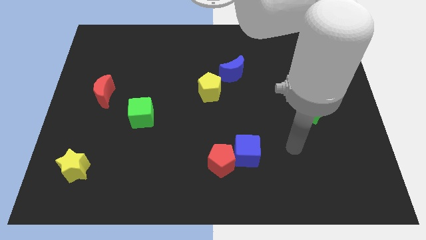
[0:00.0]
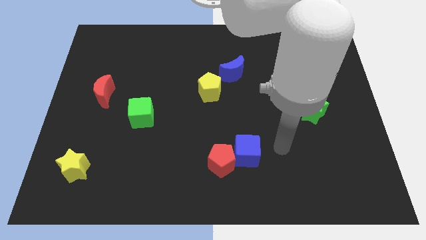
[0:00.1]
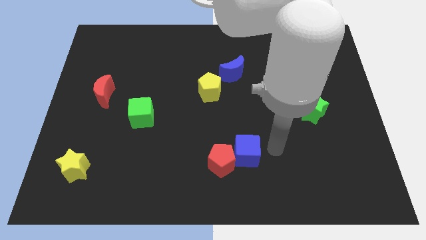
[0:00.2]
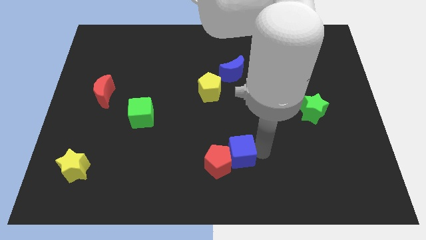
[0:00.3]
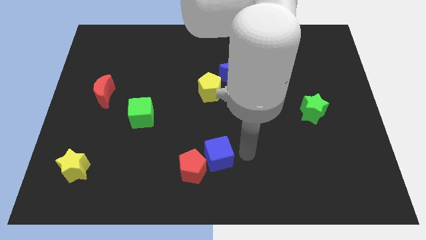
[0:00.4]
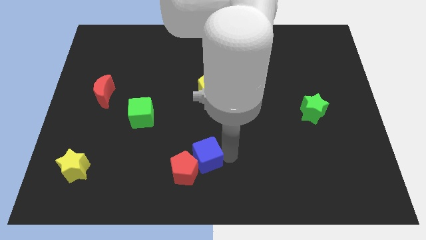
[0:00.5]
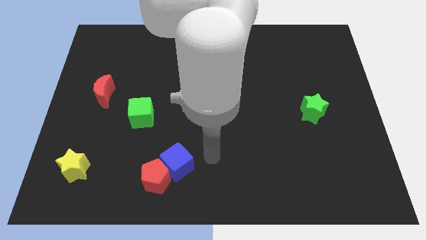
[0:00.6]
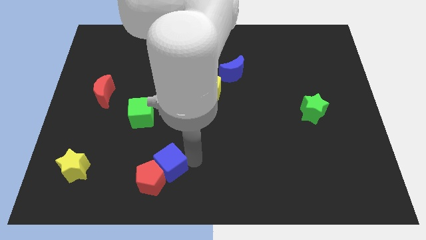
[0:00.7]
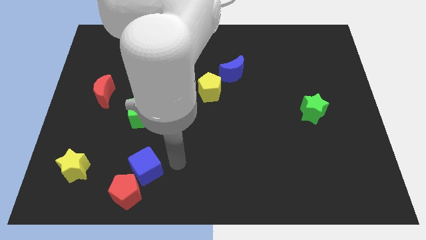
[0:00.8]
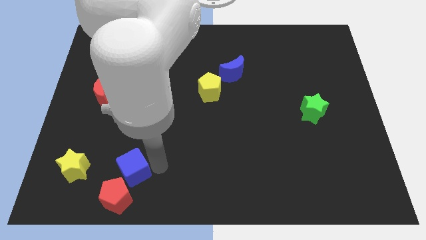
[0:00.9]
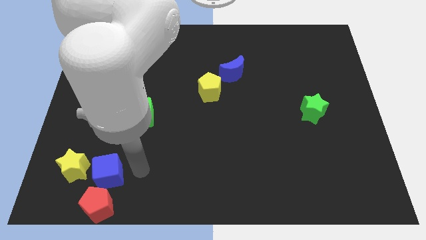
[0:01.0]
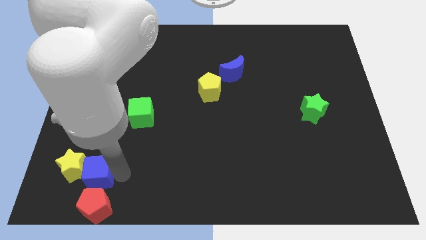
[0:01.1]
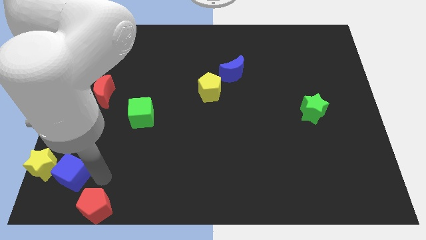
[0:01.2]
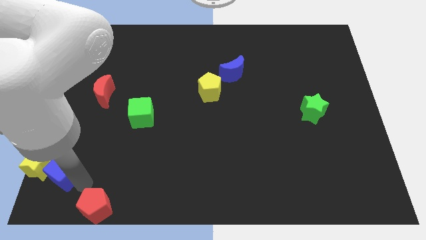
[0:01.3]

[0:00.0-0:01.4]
move the red pentagon away from the blue cube

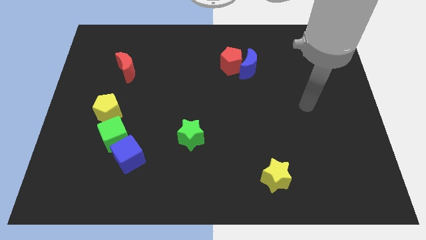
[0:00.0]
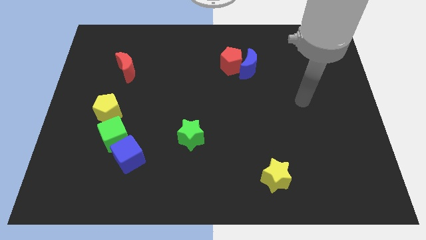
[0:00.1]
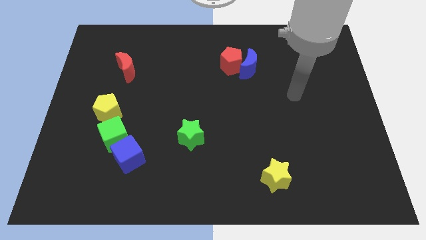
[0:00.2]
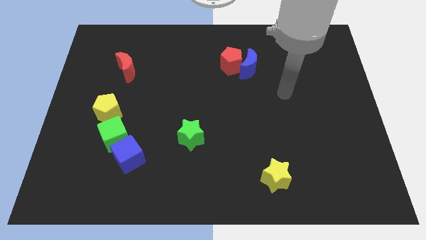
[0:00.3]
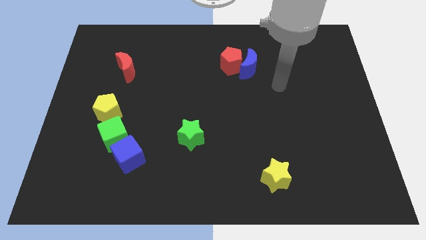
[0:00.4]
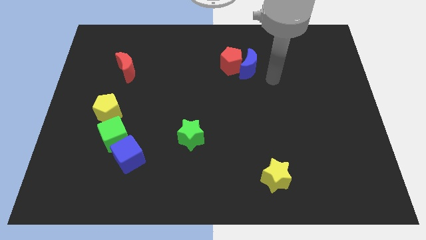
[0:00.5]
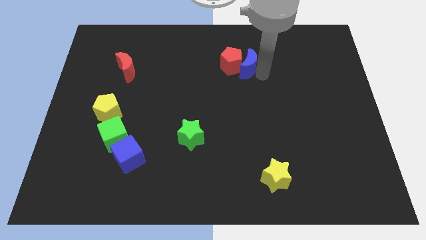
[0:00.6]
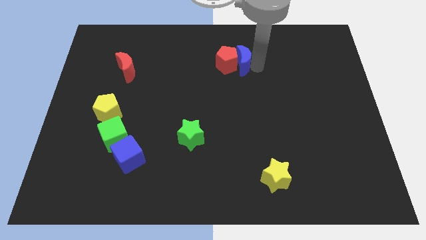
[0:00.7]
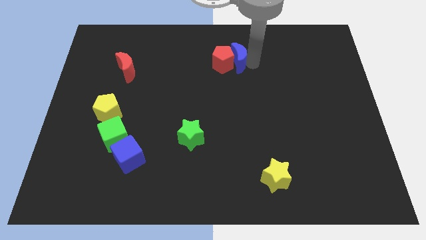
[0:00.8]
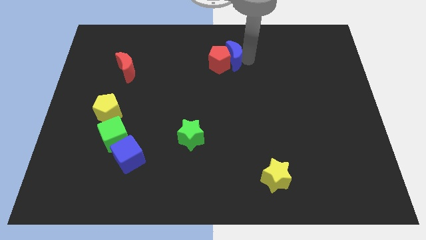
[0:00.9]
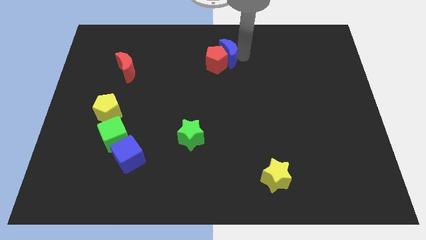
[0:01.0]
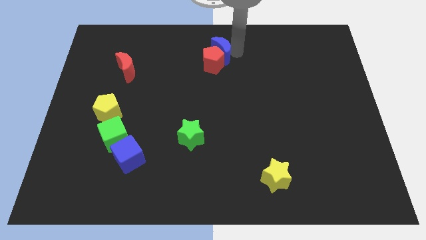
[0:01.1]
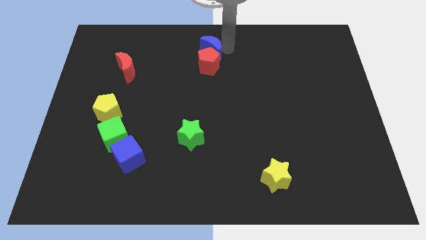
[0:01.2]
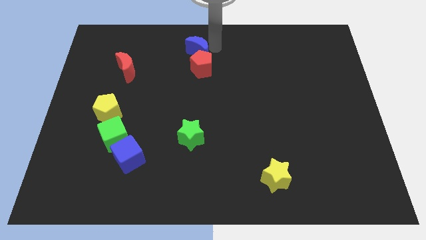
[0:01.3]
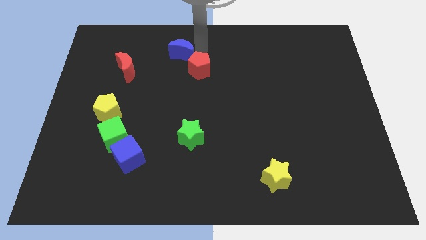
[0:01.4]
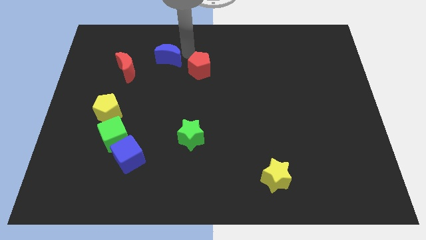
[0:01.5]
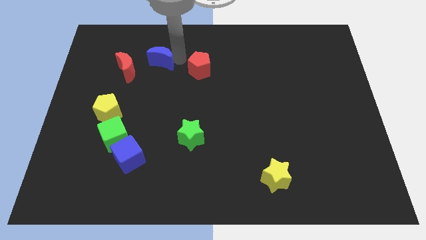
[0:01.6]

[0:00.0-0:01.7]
pull the red pentagon apart from the blue moon

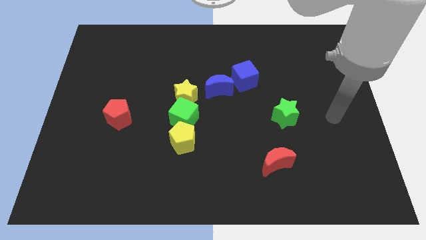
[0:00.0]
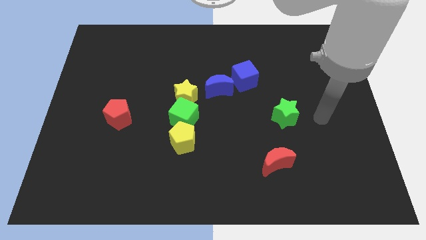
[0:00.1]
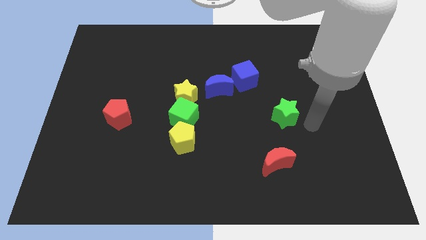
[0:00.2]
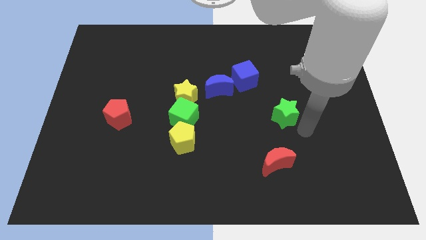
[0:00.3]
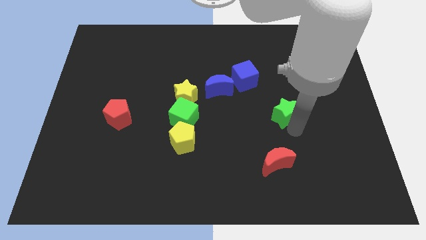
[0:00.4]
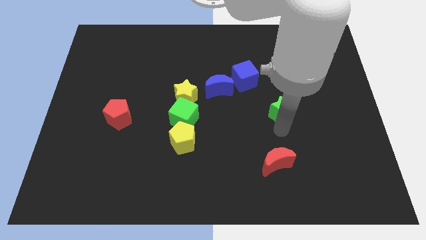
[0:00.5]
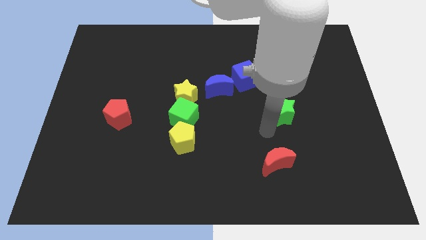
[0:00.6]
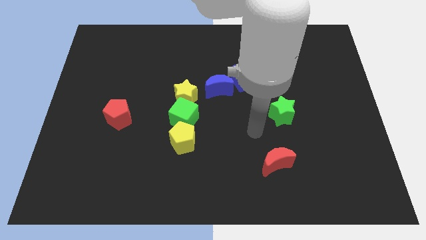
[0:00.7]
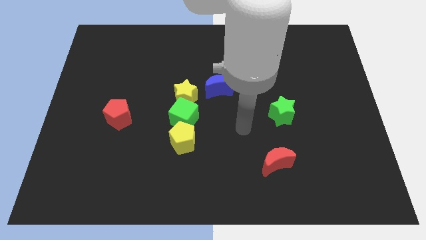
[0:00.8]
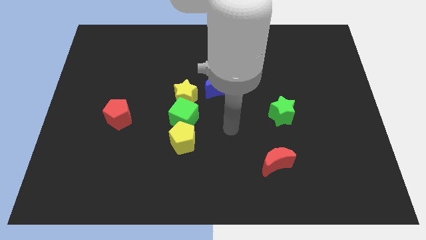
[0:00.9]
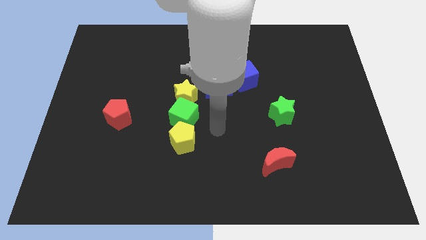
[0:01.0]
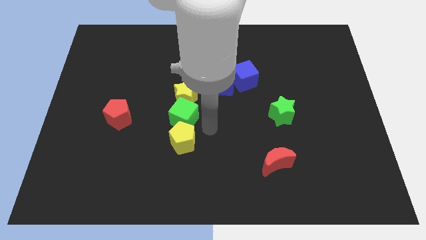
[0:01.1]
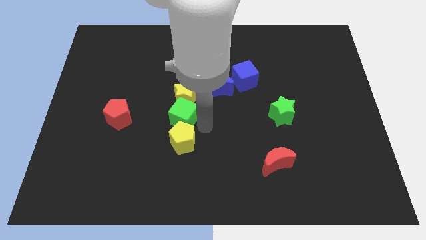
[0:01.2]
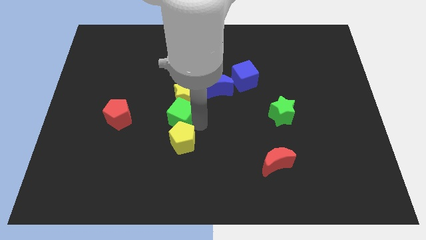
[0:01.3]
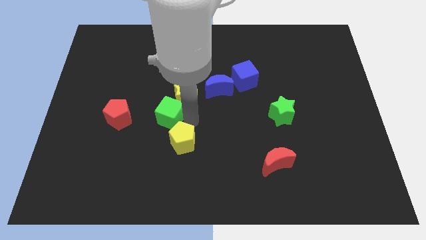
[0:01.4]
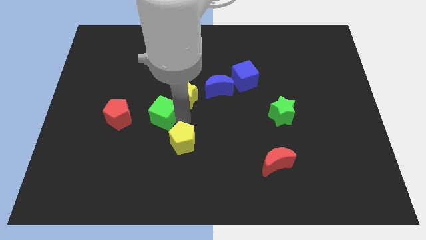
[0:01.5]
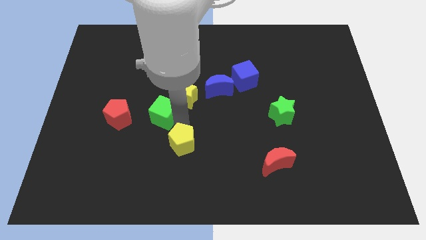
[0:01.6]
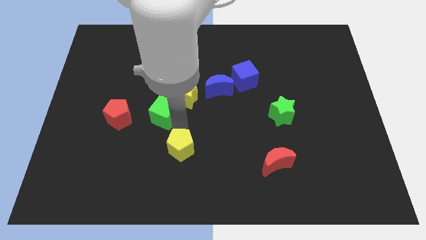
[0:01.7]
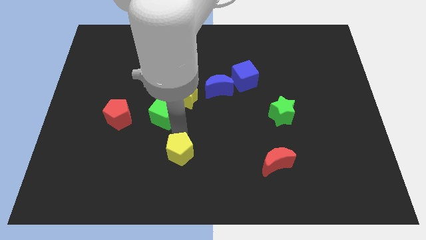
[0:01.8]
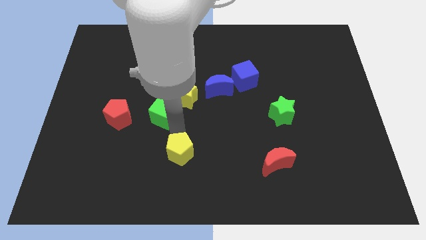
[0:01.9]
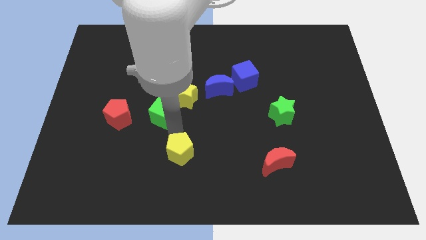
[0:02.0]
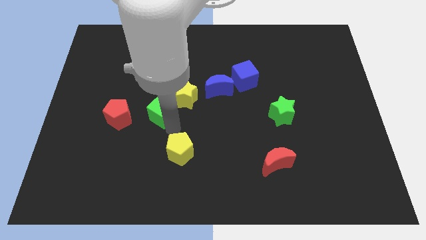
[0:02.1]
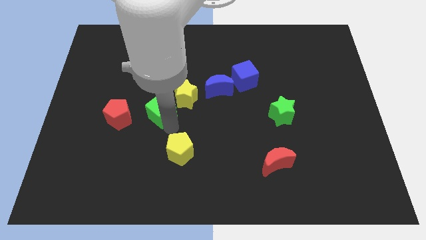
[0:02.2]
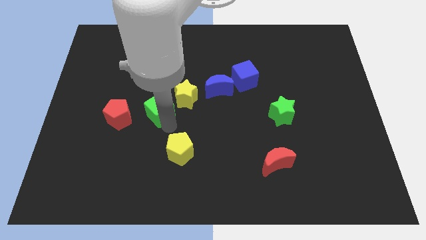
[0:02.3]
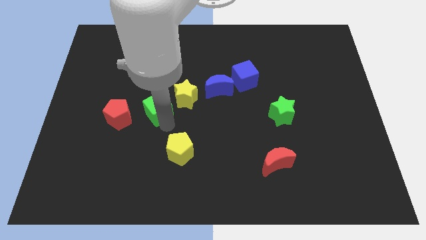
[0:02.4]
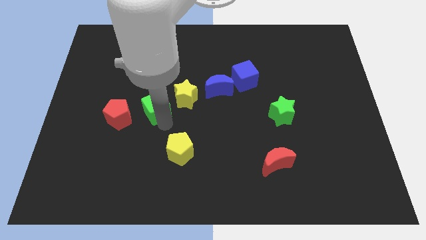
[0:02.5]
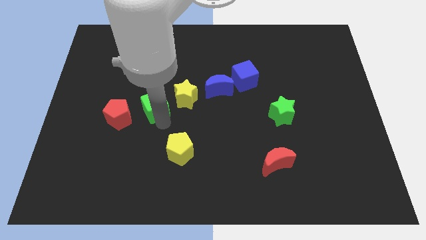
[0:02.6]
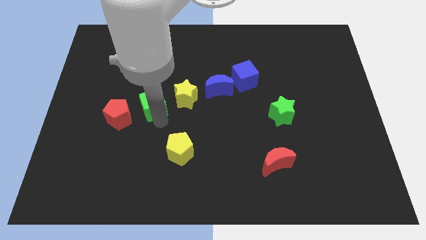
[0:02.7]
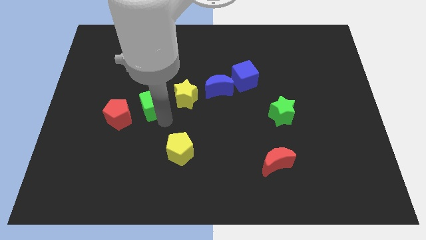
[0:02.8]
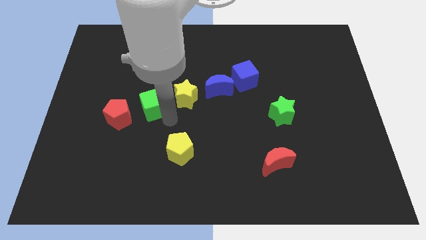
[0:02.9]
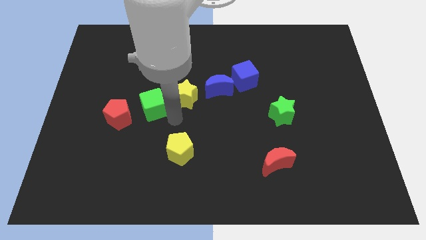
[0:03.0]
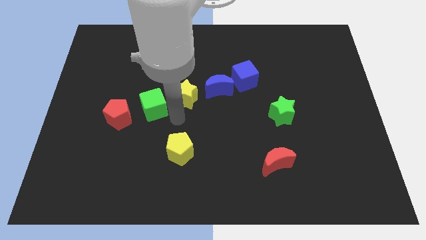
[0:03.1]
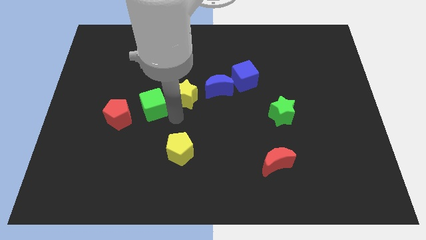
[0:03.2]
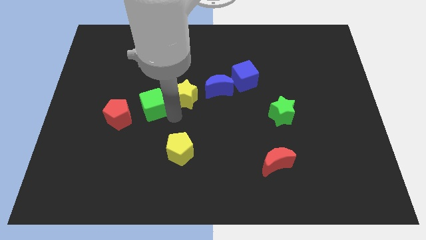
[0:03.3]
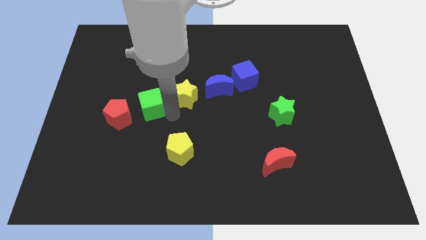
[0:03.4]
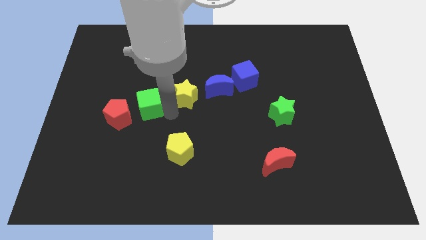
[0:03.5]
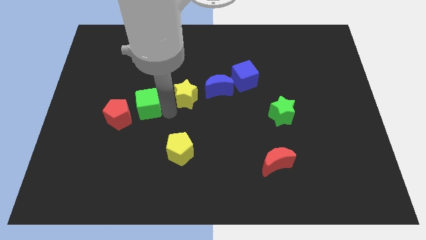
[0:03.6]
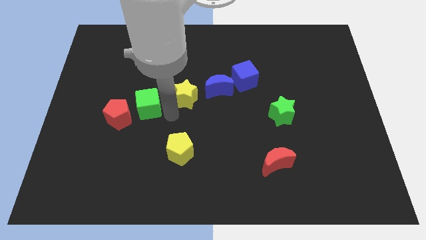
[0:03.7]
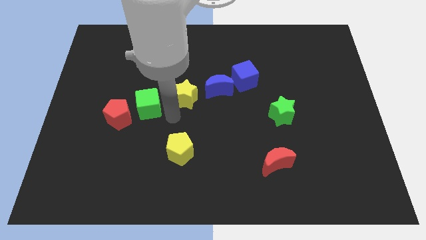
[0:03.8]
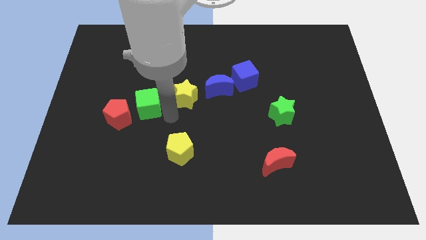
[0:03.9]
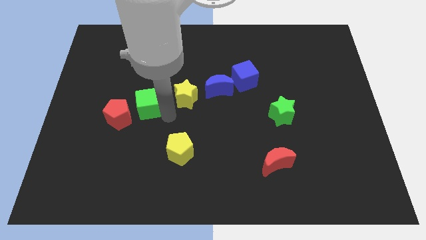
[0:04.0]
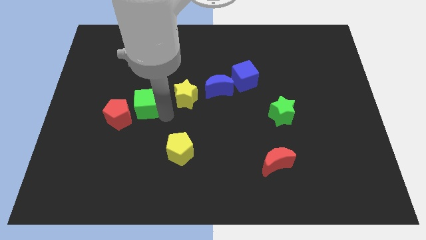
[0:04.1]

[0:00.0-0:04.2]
move the green cube away from the yellow star and yellow pentagon

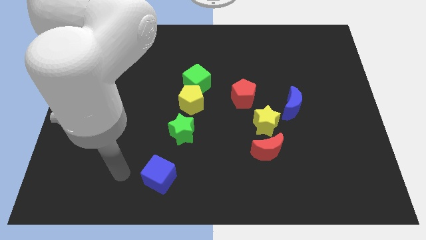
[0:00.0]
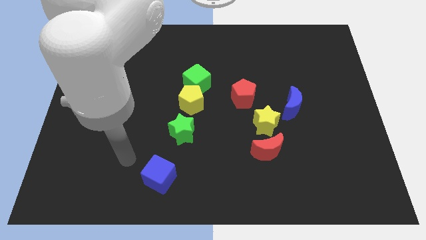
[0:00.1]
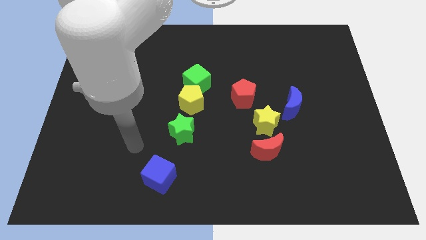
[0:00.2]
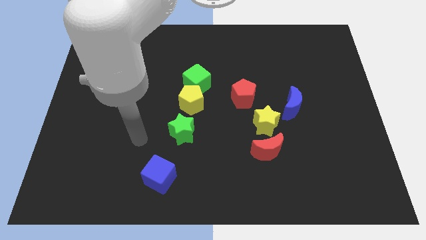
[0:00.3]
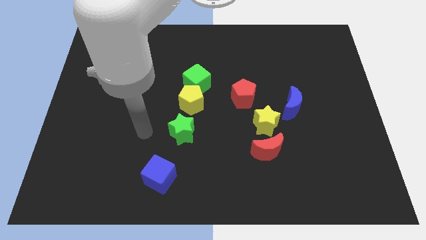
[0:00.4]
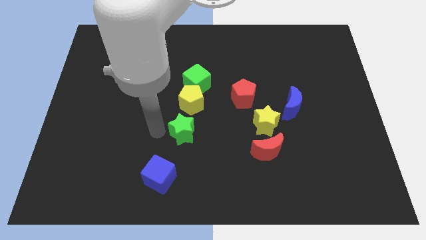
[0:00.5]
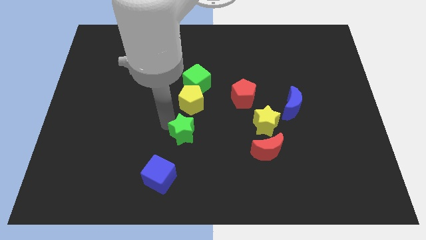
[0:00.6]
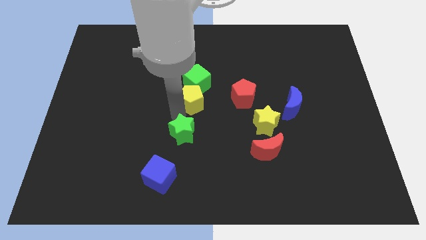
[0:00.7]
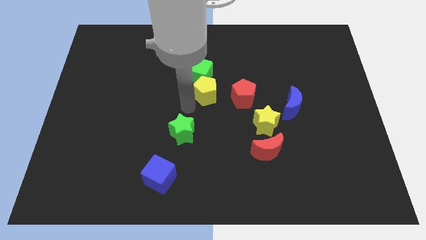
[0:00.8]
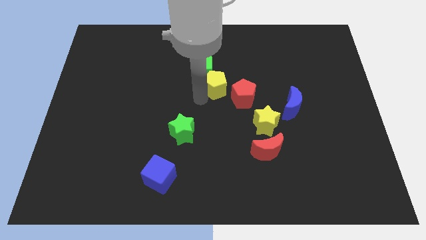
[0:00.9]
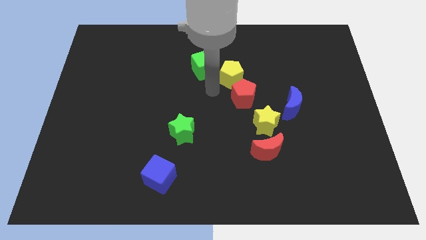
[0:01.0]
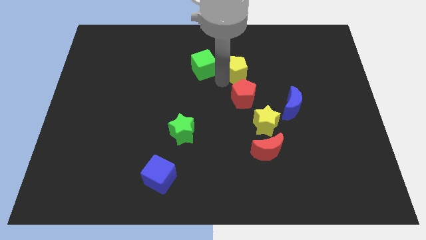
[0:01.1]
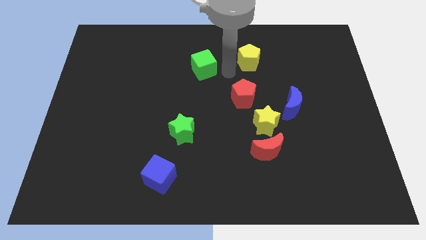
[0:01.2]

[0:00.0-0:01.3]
separate the green cube from the yellow pentagon

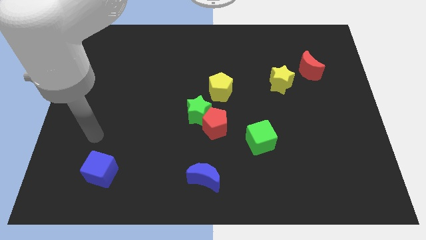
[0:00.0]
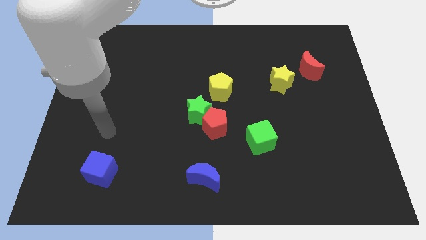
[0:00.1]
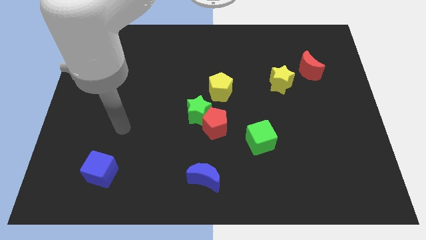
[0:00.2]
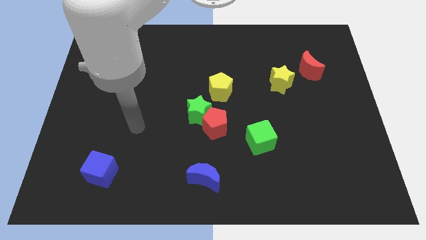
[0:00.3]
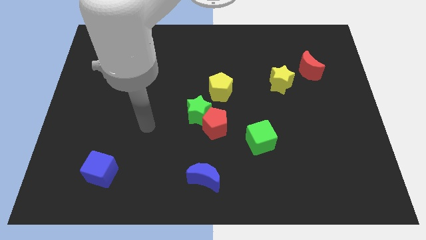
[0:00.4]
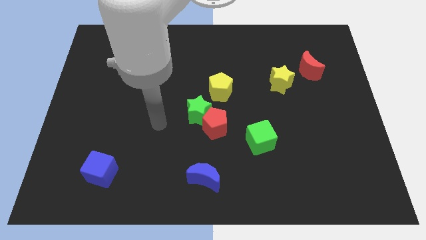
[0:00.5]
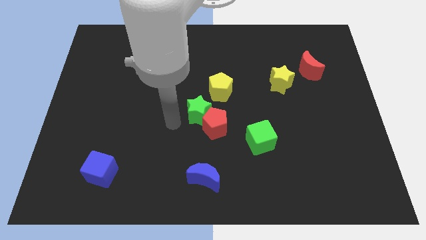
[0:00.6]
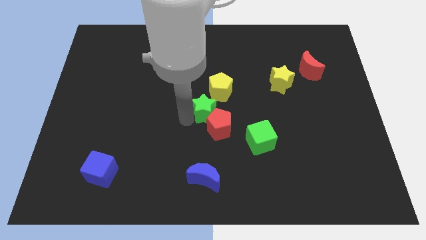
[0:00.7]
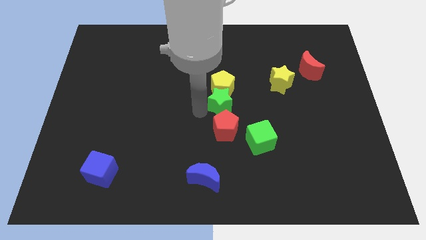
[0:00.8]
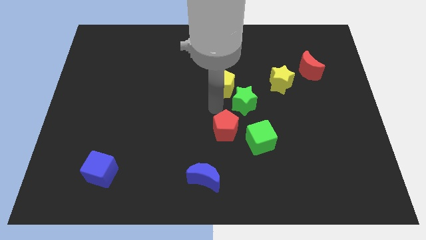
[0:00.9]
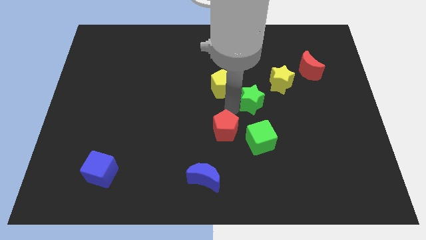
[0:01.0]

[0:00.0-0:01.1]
move the red pentagon away from the green star
